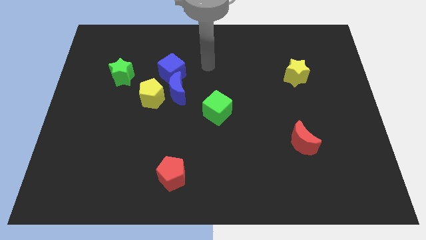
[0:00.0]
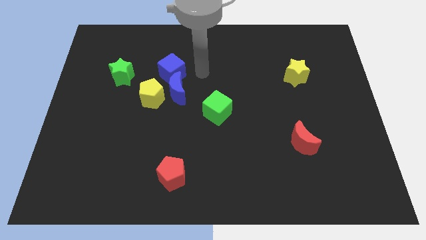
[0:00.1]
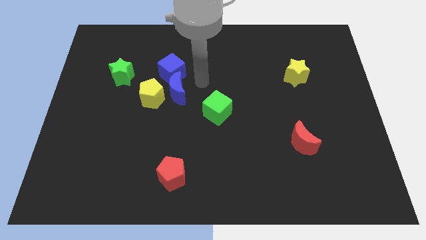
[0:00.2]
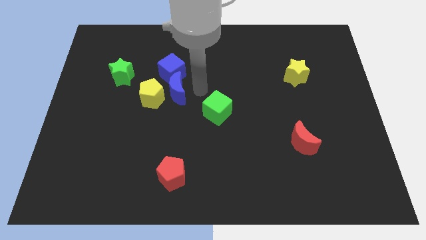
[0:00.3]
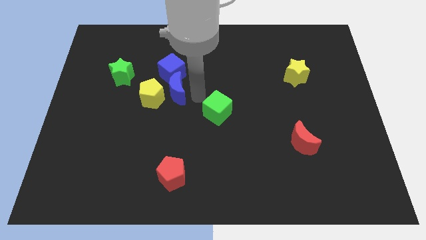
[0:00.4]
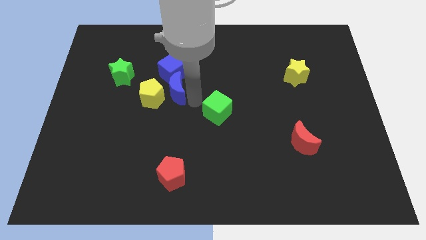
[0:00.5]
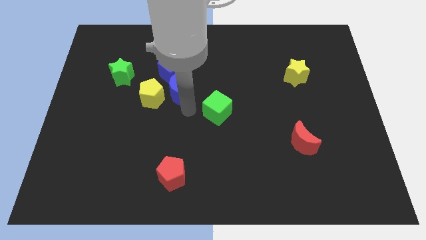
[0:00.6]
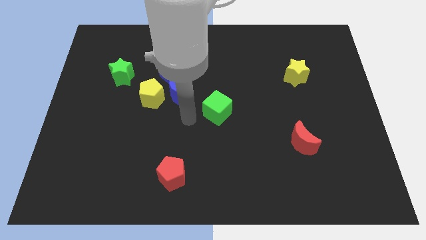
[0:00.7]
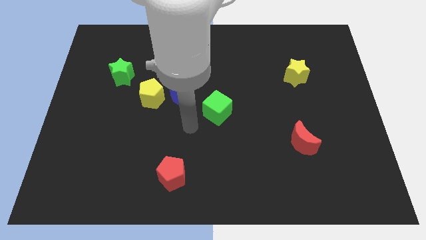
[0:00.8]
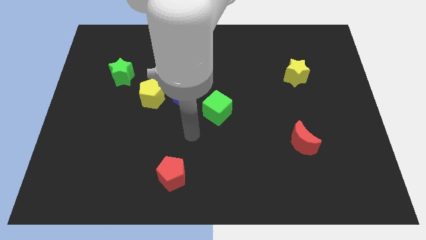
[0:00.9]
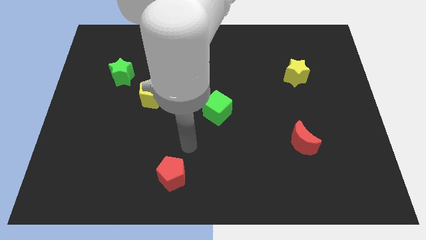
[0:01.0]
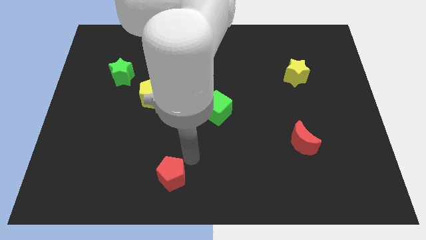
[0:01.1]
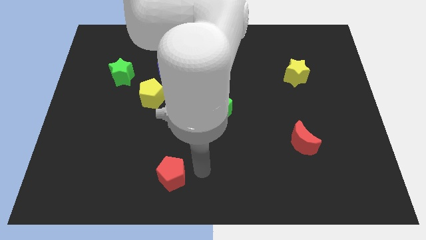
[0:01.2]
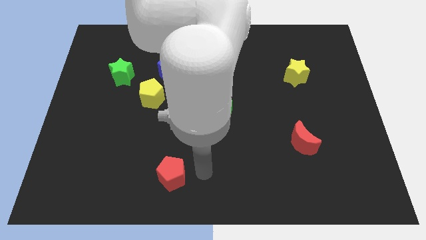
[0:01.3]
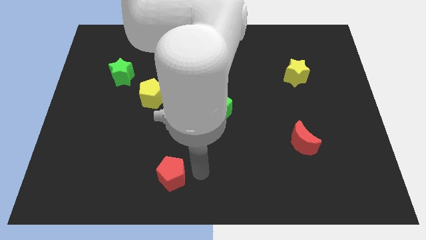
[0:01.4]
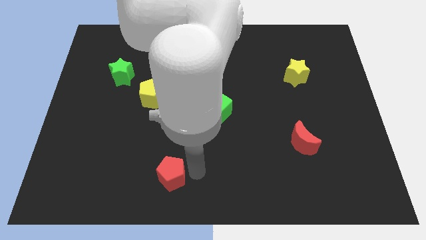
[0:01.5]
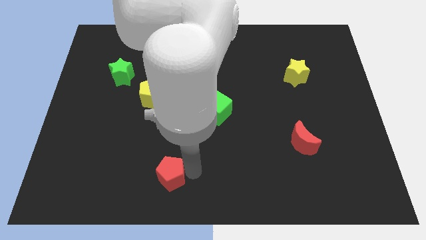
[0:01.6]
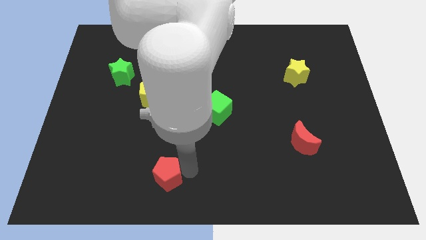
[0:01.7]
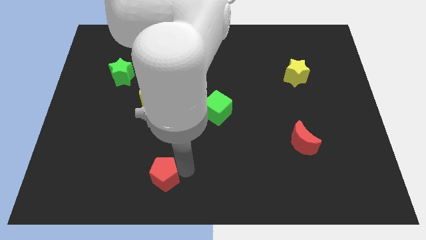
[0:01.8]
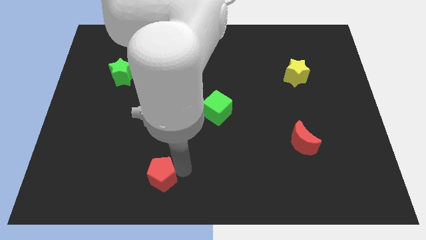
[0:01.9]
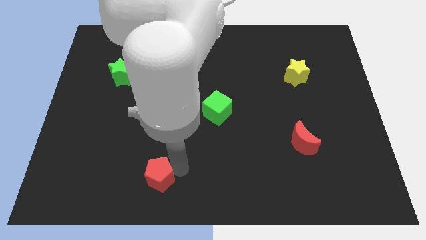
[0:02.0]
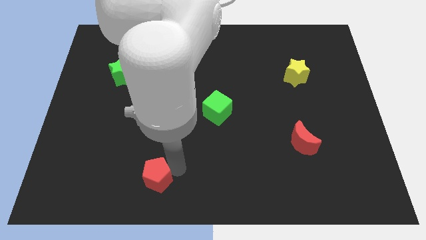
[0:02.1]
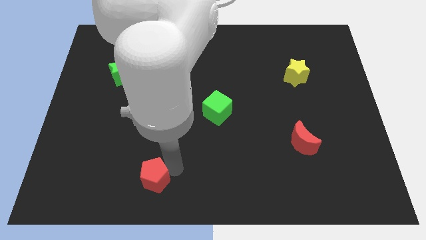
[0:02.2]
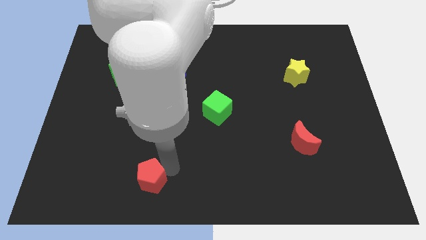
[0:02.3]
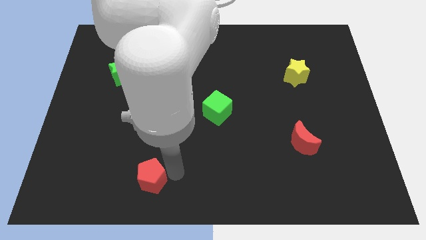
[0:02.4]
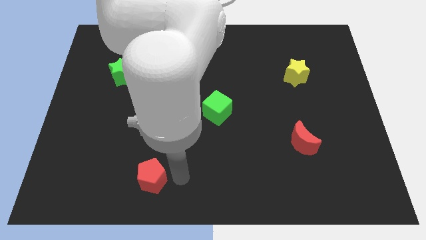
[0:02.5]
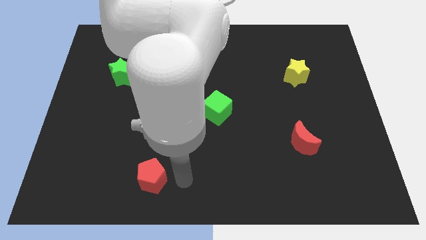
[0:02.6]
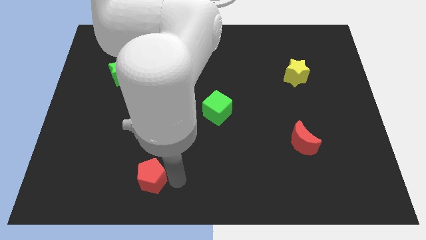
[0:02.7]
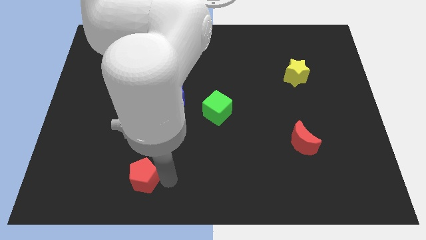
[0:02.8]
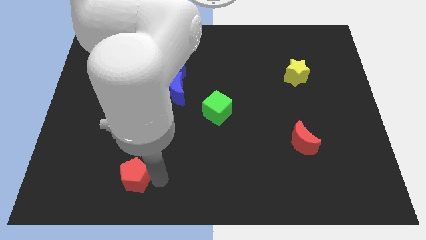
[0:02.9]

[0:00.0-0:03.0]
slightly push the red pentagon to the left

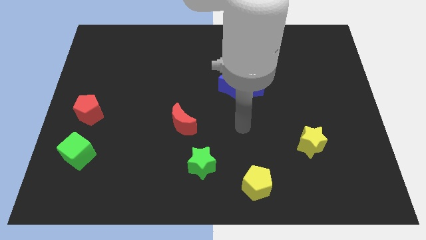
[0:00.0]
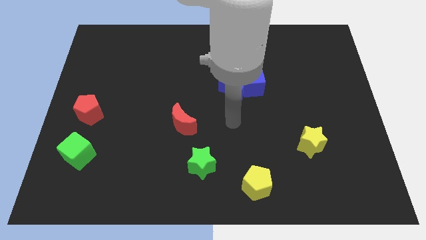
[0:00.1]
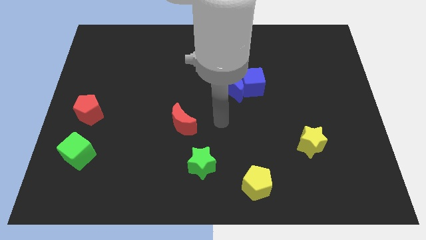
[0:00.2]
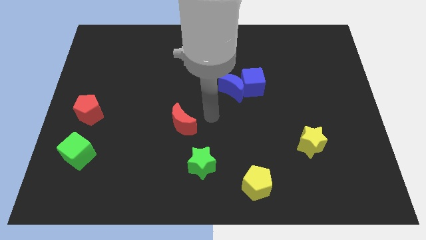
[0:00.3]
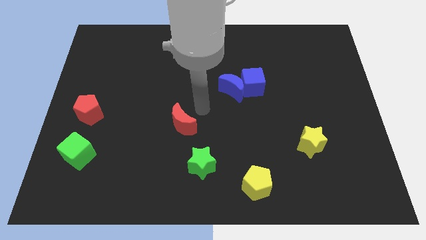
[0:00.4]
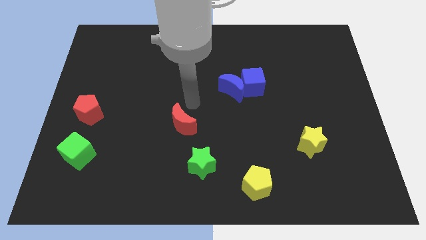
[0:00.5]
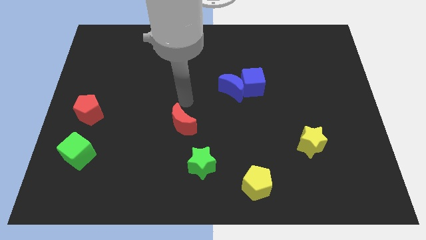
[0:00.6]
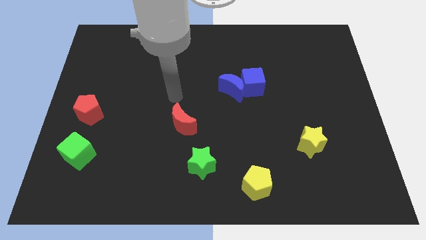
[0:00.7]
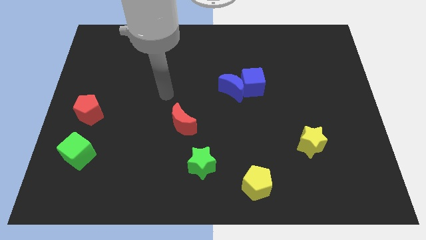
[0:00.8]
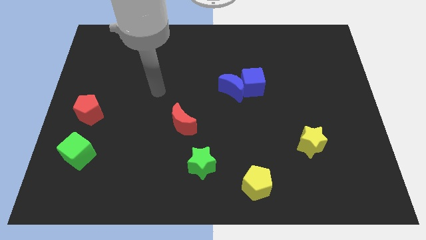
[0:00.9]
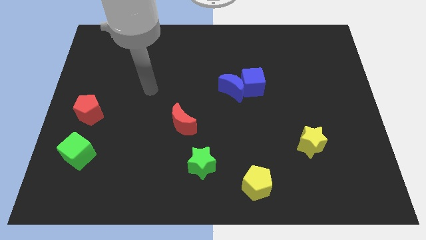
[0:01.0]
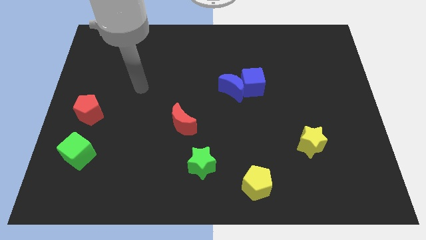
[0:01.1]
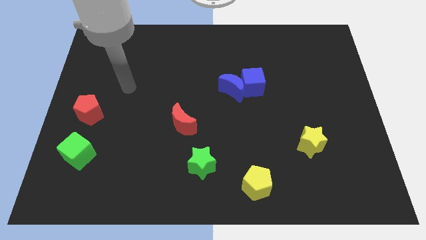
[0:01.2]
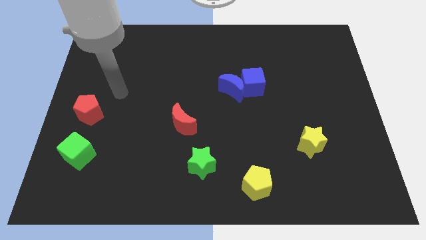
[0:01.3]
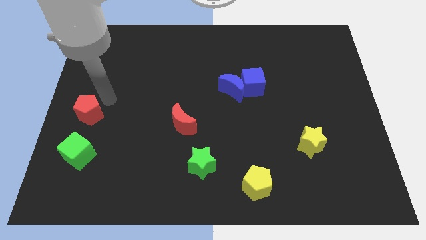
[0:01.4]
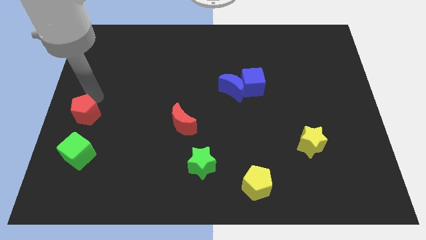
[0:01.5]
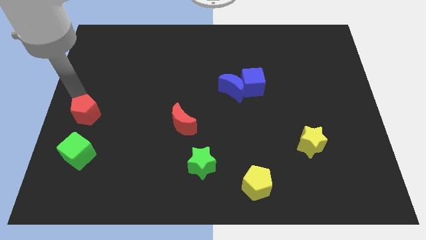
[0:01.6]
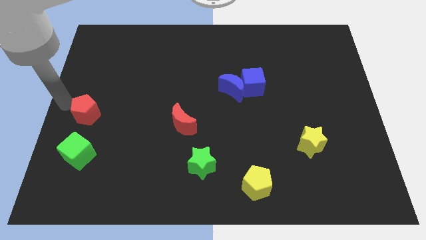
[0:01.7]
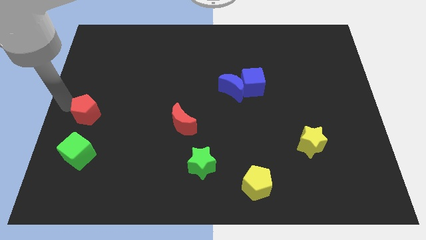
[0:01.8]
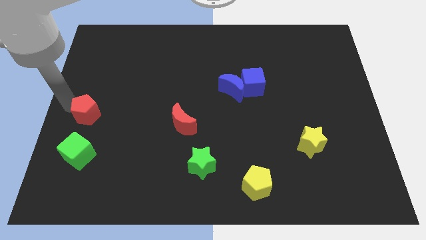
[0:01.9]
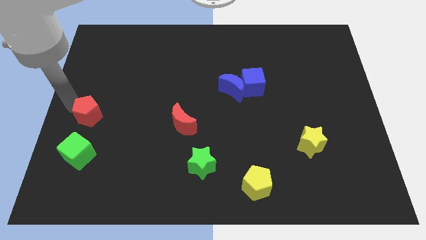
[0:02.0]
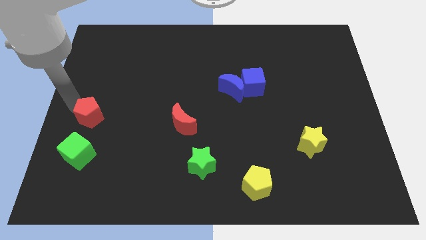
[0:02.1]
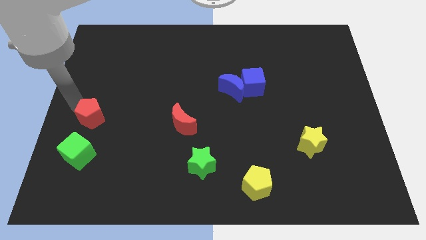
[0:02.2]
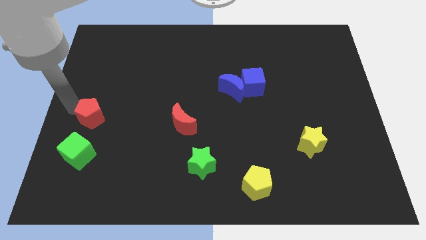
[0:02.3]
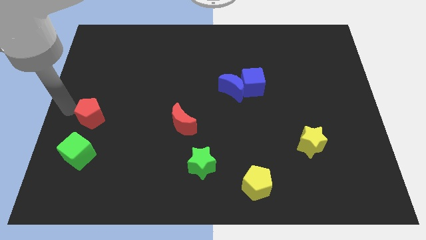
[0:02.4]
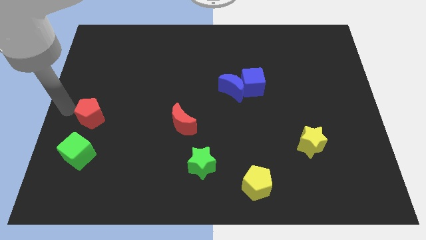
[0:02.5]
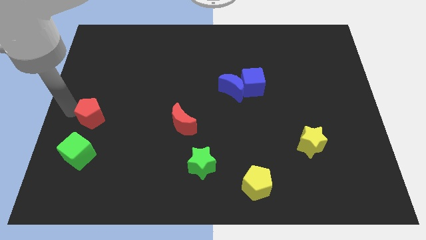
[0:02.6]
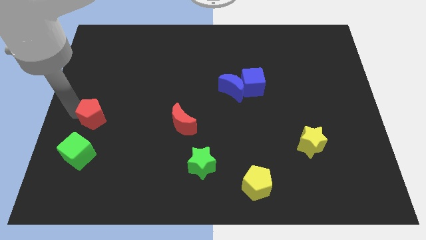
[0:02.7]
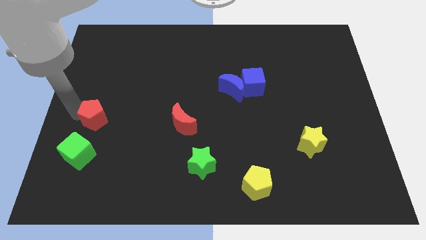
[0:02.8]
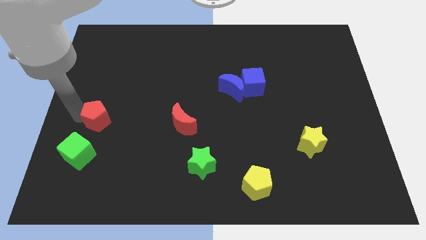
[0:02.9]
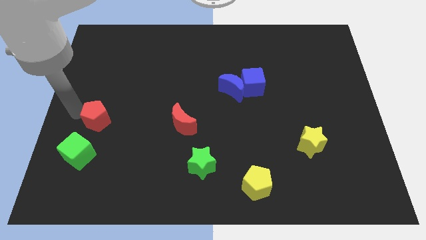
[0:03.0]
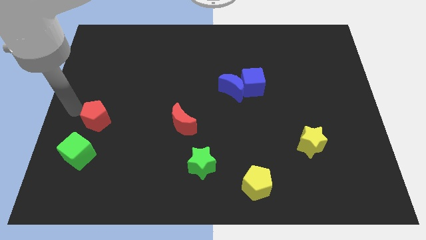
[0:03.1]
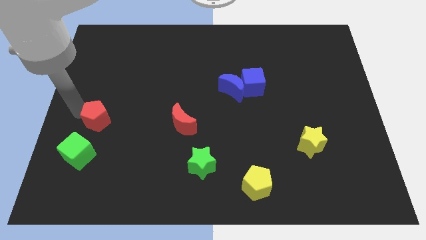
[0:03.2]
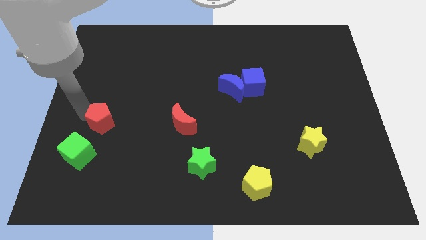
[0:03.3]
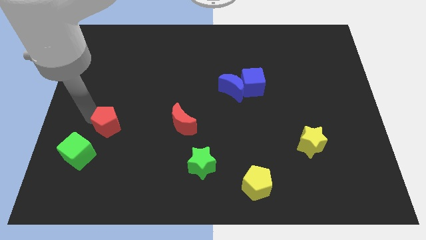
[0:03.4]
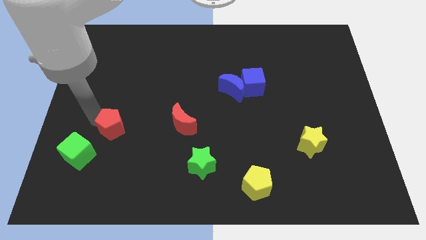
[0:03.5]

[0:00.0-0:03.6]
slide the red pentagon downwards and then right somewhat

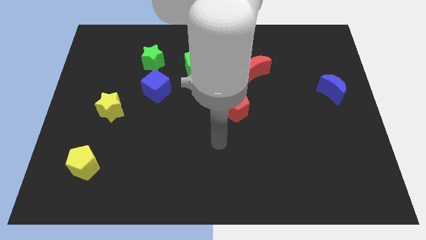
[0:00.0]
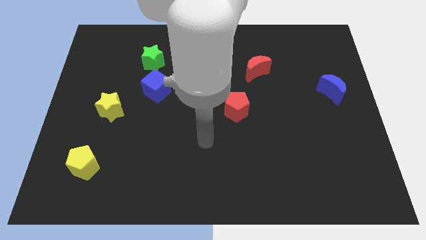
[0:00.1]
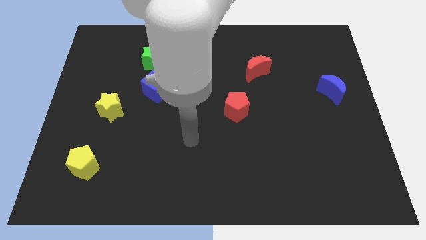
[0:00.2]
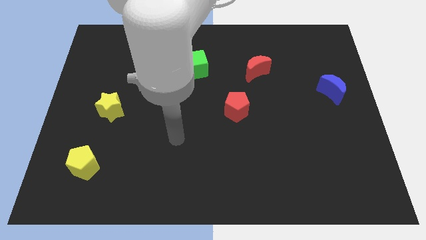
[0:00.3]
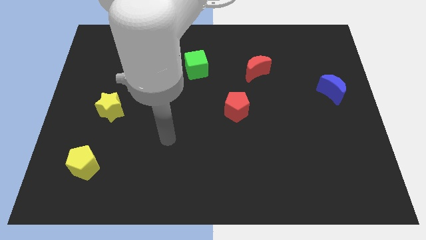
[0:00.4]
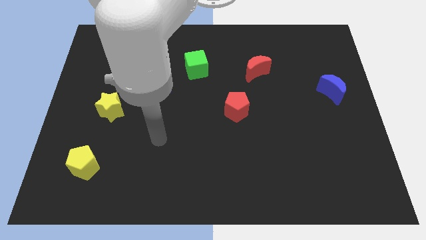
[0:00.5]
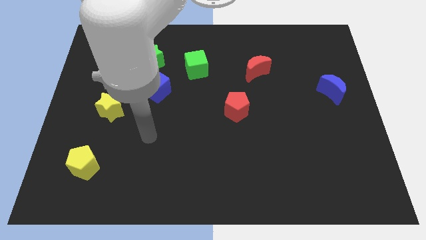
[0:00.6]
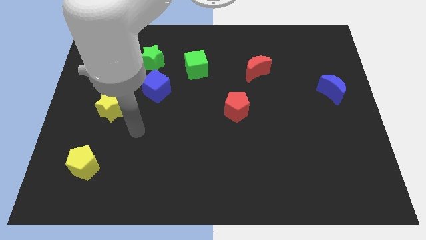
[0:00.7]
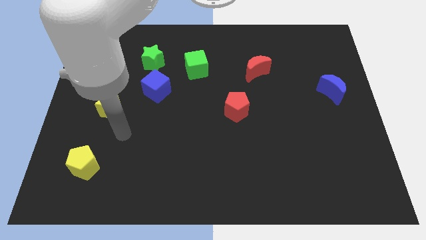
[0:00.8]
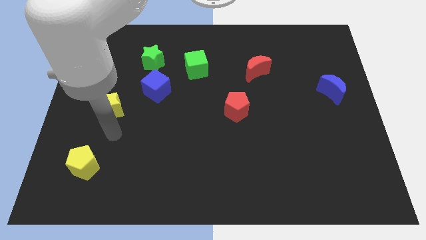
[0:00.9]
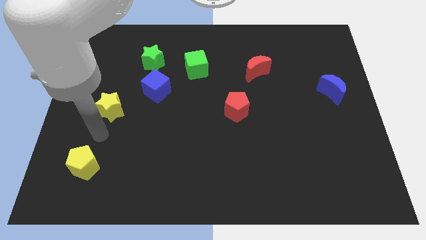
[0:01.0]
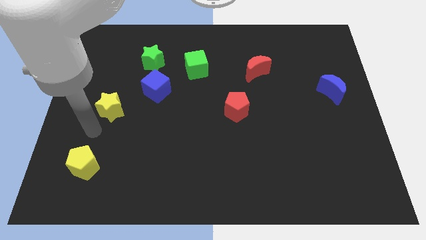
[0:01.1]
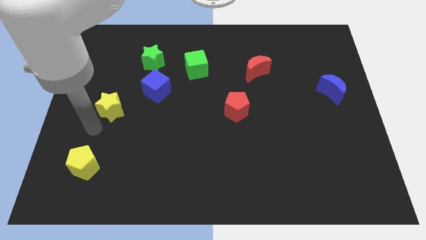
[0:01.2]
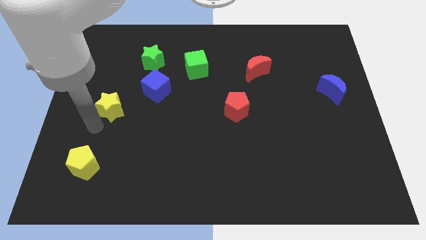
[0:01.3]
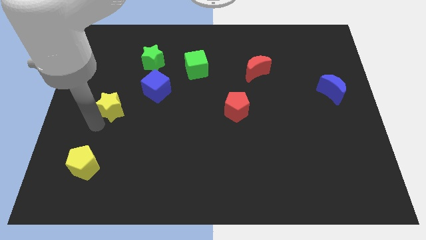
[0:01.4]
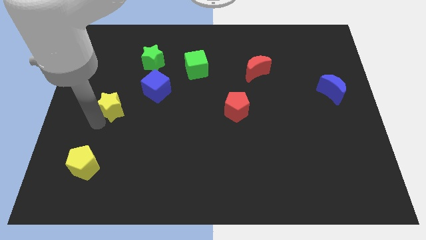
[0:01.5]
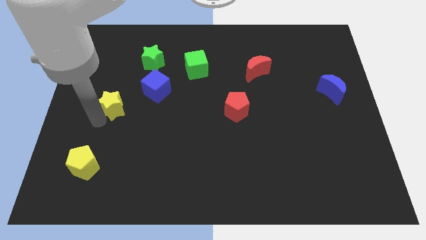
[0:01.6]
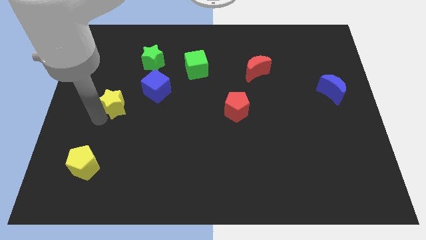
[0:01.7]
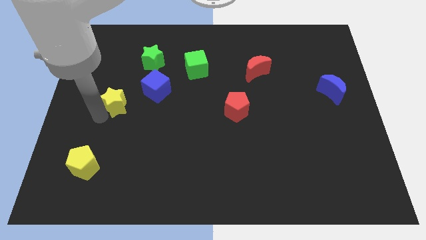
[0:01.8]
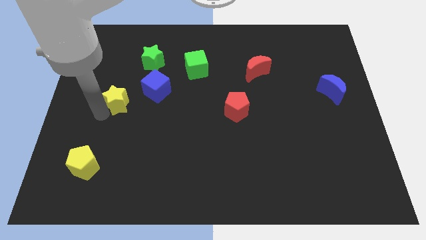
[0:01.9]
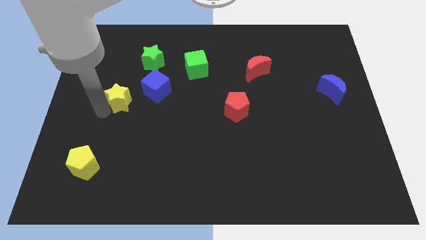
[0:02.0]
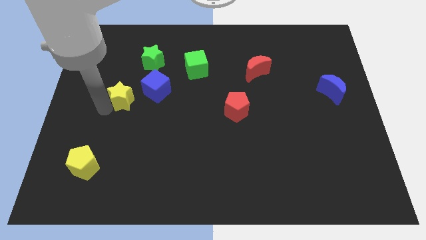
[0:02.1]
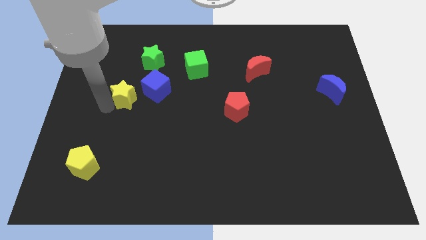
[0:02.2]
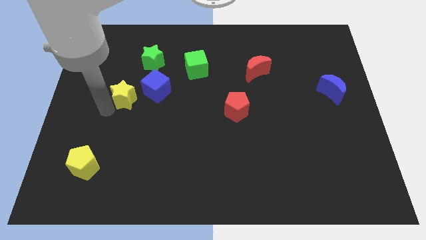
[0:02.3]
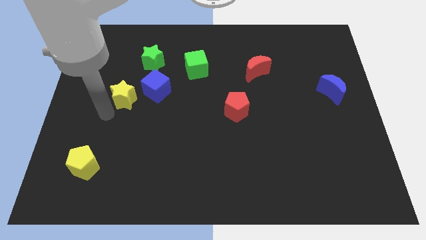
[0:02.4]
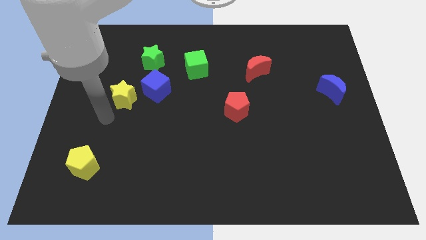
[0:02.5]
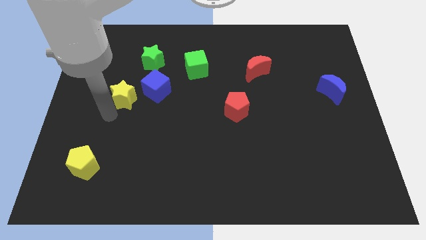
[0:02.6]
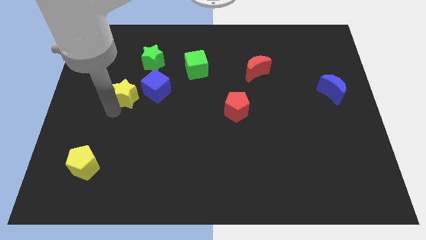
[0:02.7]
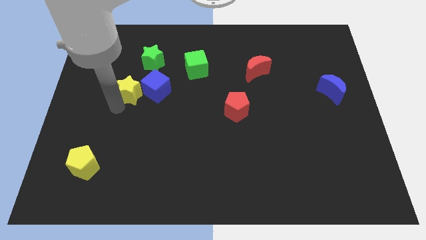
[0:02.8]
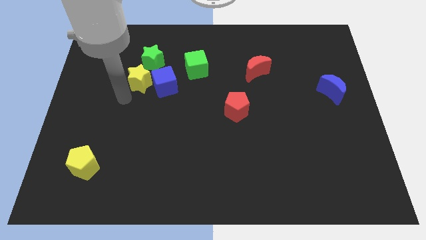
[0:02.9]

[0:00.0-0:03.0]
push the yellow star diagonally upwards and to the right a bit
